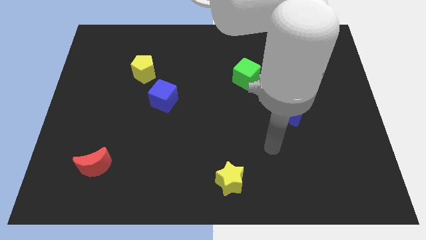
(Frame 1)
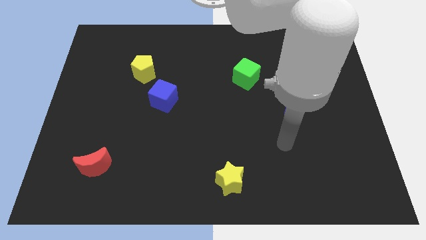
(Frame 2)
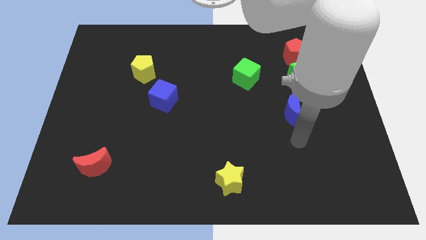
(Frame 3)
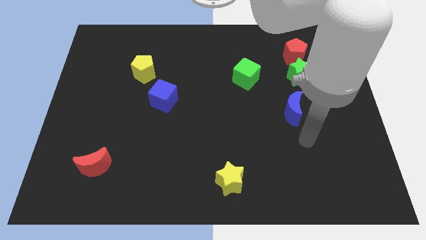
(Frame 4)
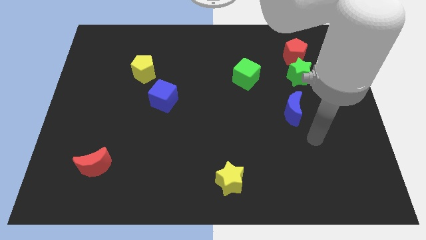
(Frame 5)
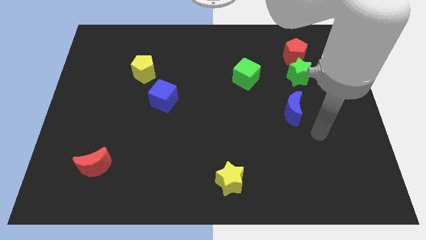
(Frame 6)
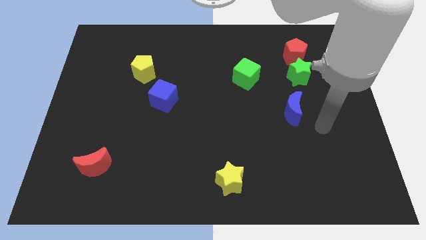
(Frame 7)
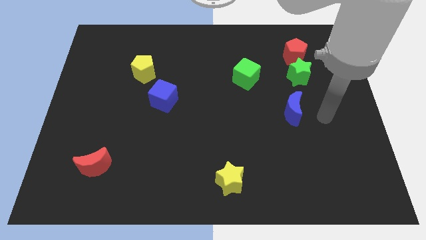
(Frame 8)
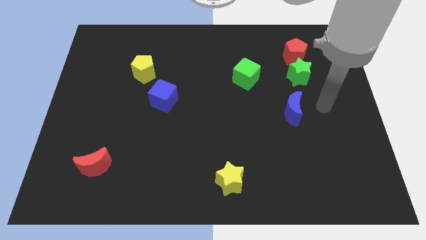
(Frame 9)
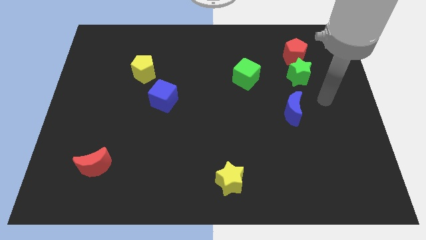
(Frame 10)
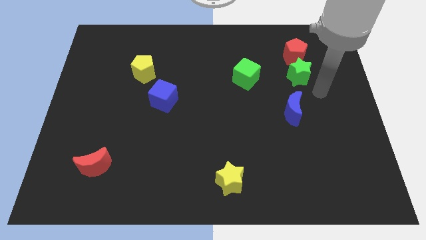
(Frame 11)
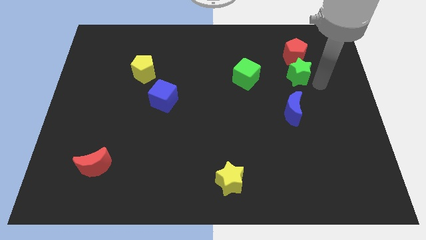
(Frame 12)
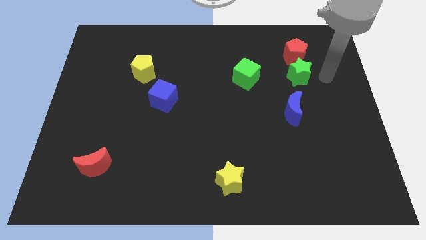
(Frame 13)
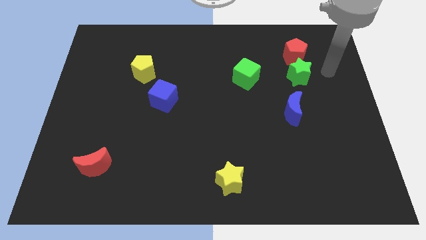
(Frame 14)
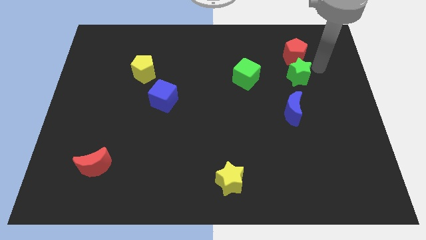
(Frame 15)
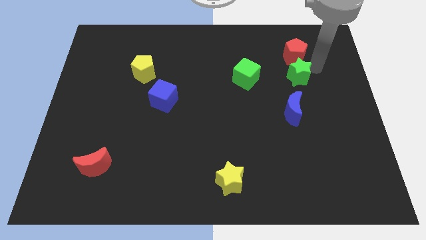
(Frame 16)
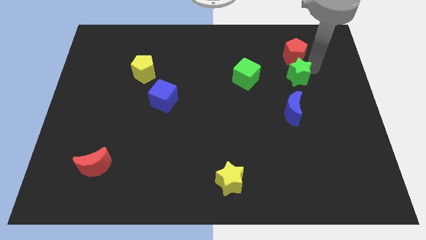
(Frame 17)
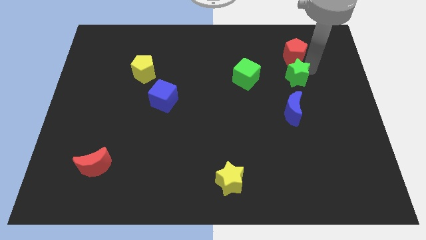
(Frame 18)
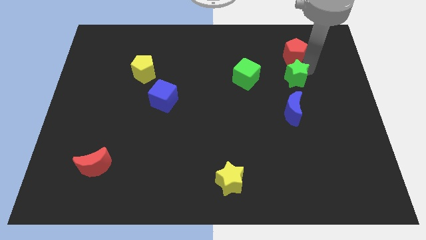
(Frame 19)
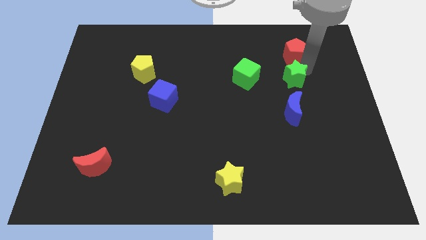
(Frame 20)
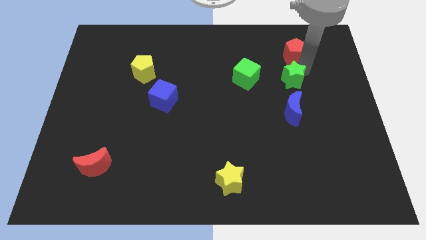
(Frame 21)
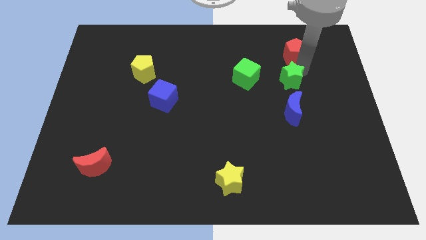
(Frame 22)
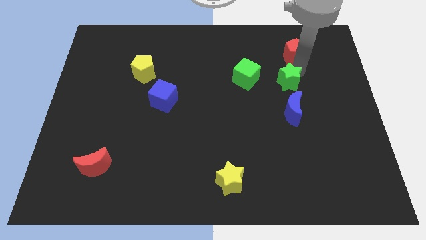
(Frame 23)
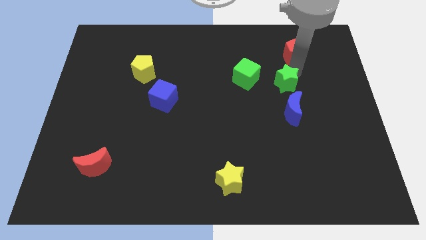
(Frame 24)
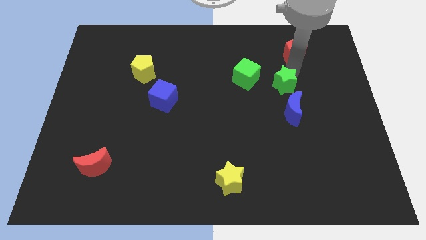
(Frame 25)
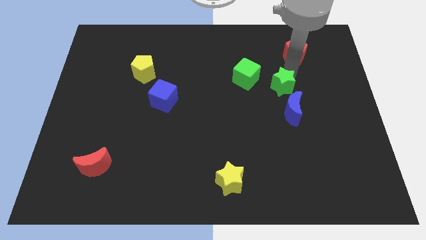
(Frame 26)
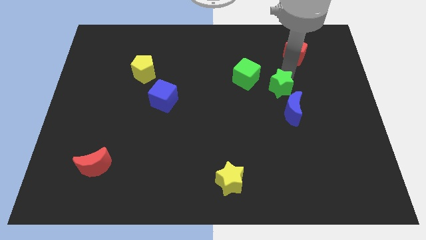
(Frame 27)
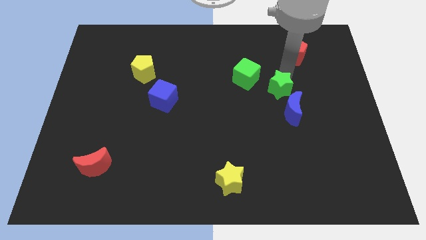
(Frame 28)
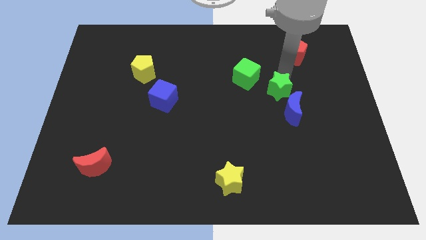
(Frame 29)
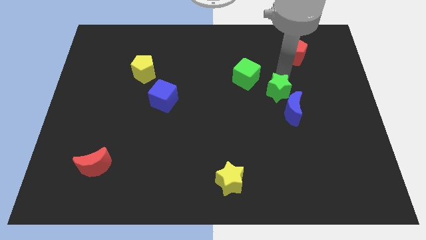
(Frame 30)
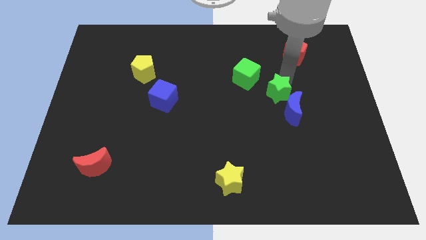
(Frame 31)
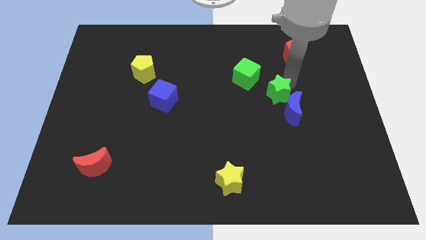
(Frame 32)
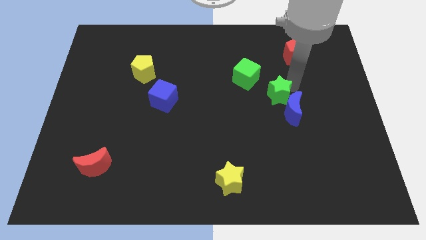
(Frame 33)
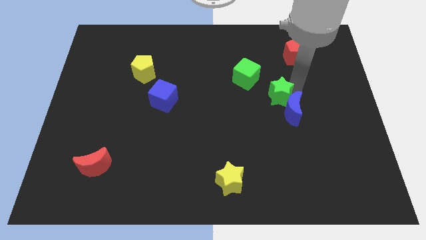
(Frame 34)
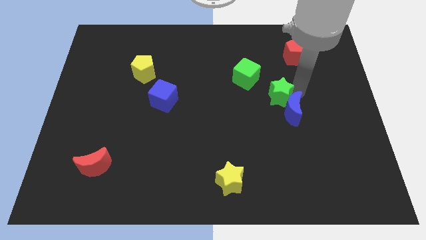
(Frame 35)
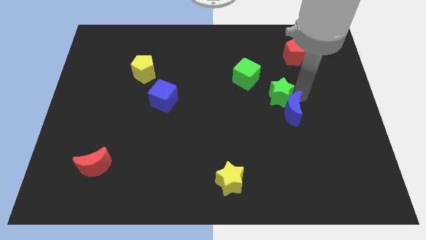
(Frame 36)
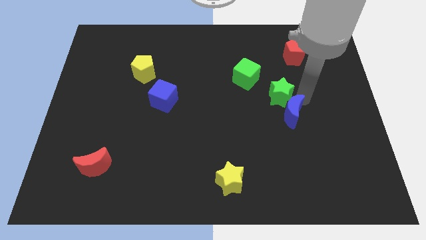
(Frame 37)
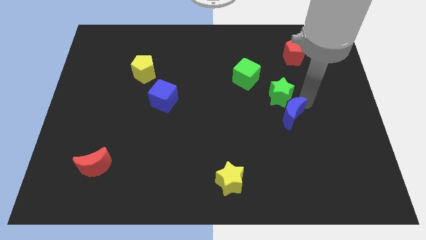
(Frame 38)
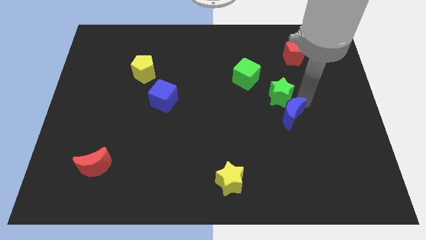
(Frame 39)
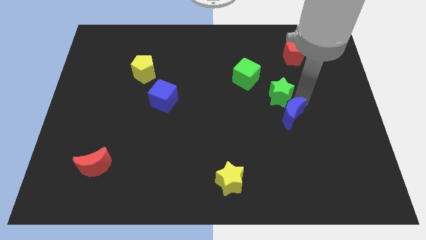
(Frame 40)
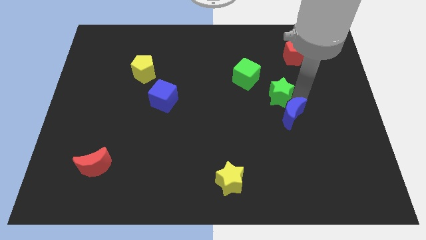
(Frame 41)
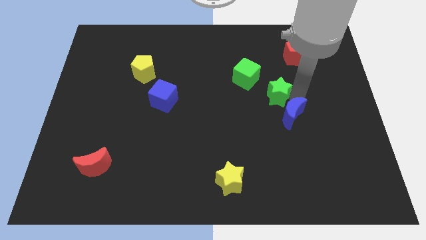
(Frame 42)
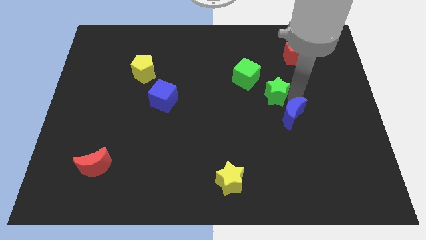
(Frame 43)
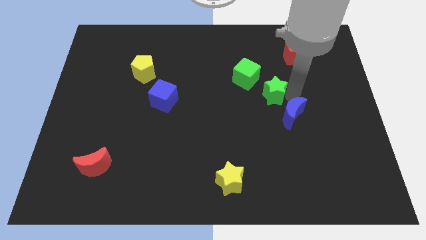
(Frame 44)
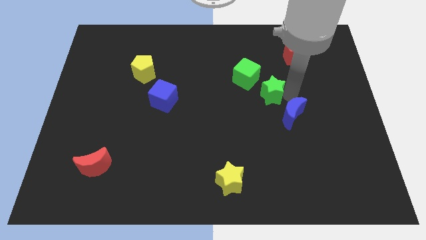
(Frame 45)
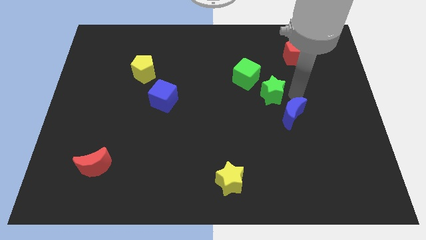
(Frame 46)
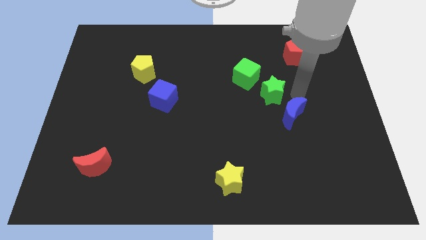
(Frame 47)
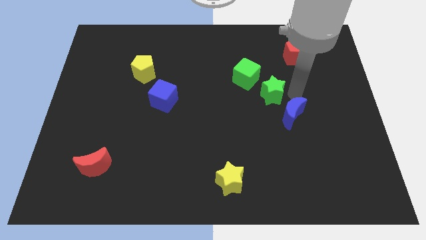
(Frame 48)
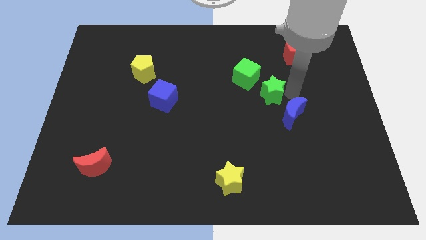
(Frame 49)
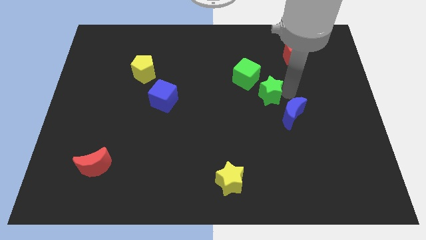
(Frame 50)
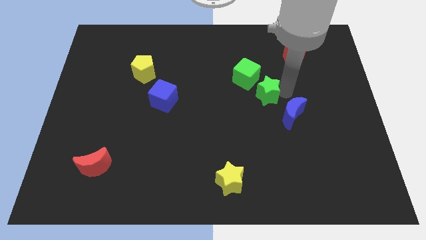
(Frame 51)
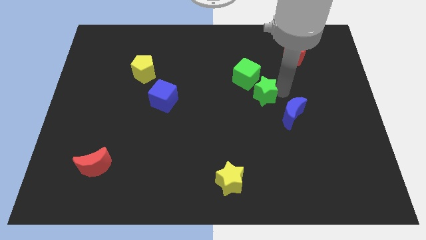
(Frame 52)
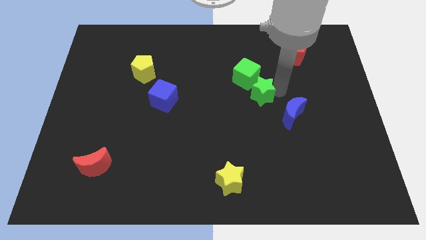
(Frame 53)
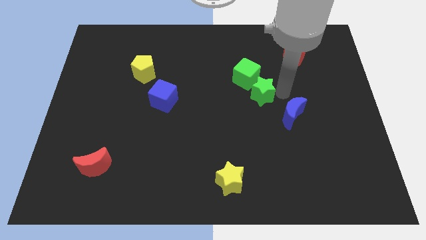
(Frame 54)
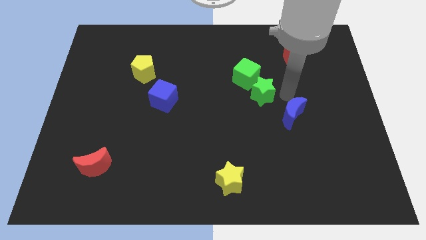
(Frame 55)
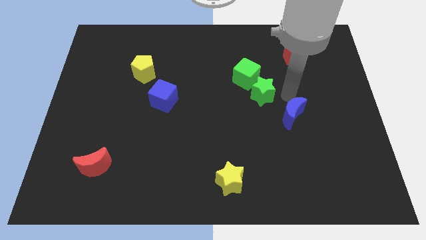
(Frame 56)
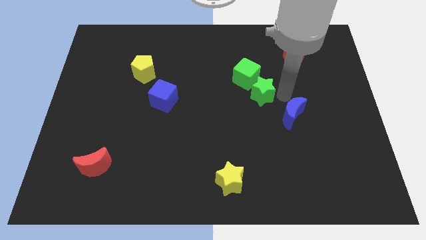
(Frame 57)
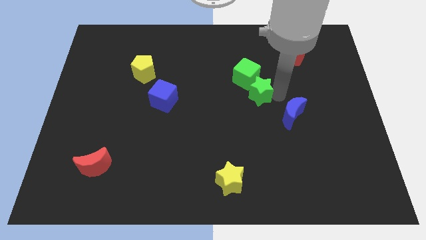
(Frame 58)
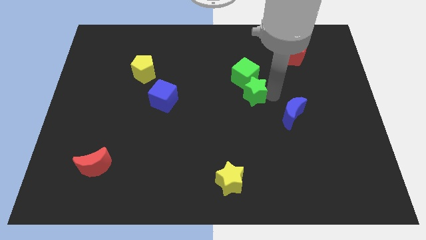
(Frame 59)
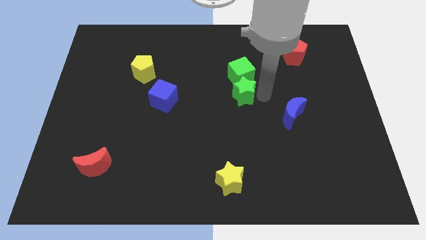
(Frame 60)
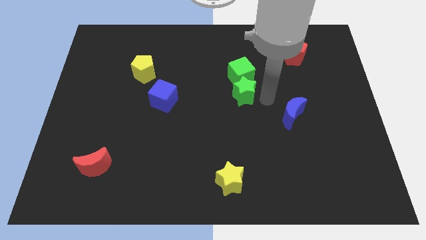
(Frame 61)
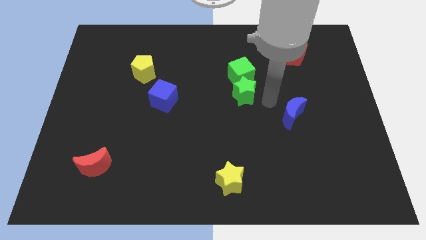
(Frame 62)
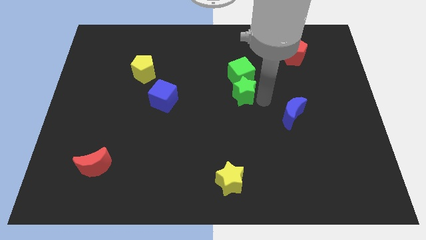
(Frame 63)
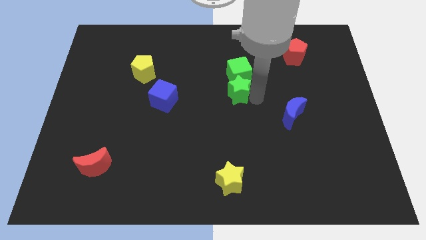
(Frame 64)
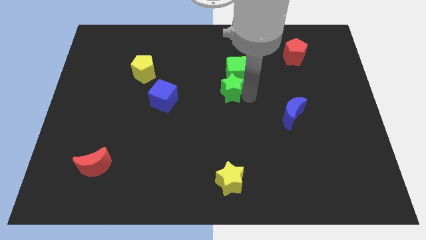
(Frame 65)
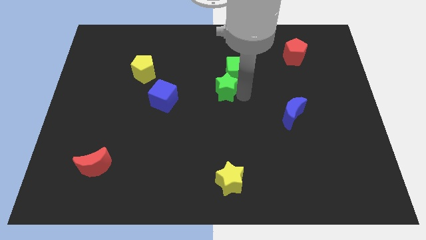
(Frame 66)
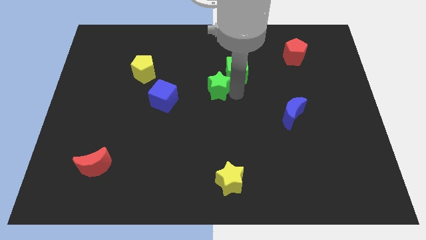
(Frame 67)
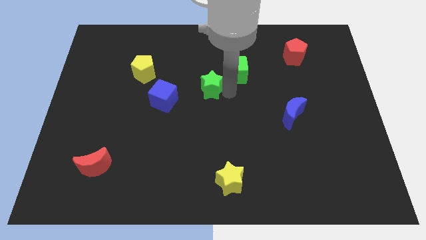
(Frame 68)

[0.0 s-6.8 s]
slide the green star to the left

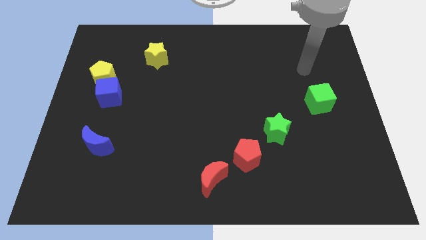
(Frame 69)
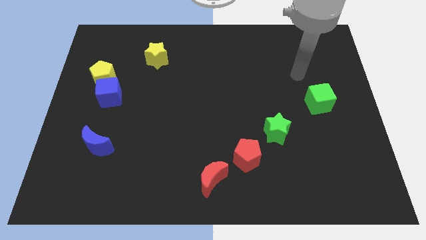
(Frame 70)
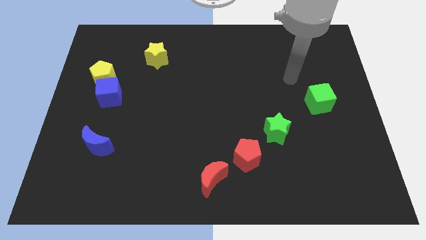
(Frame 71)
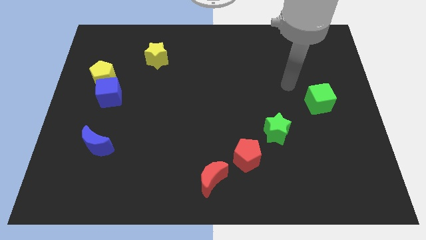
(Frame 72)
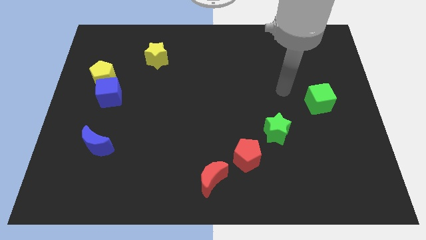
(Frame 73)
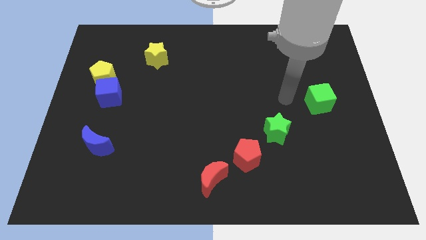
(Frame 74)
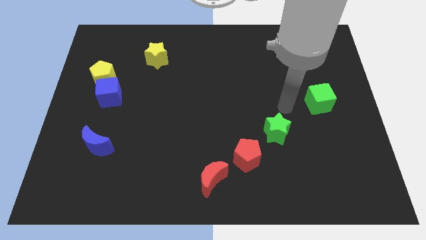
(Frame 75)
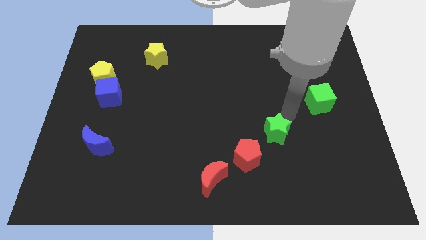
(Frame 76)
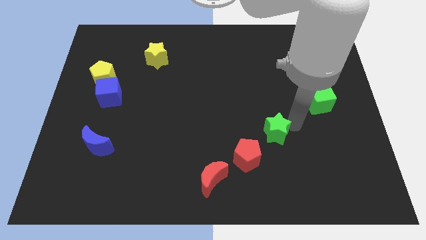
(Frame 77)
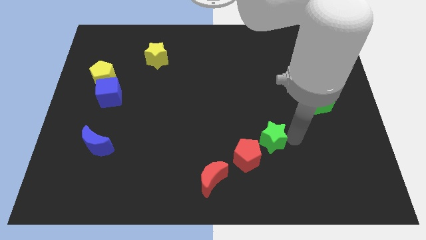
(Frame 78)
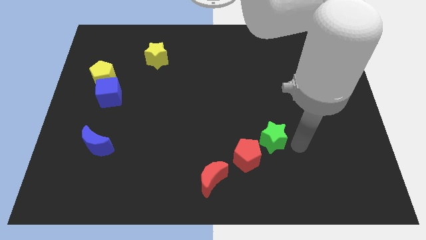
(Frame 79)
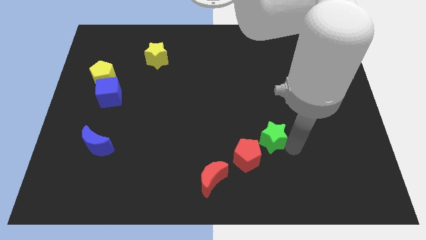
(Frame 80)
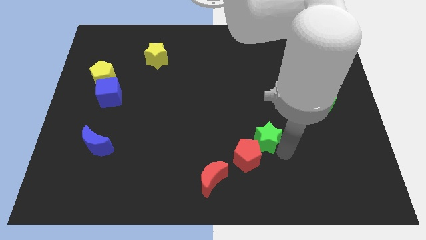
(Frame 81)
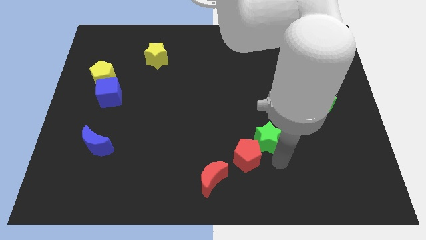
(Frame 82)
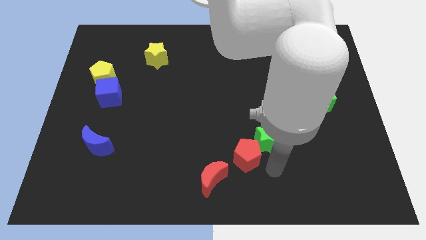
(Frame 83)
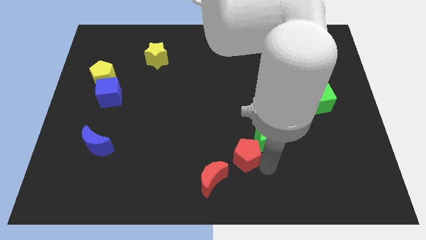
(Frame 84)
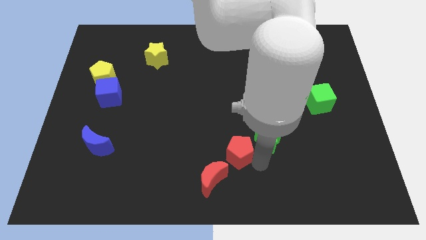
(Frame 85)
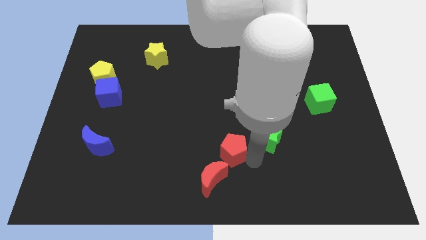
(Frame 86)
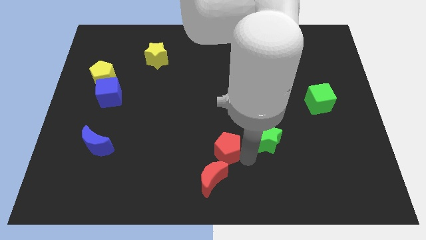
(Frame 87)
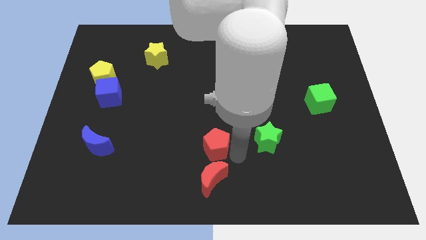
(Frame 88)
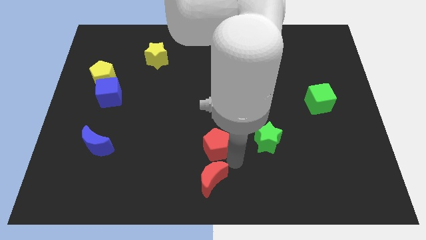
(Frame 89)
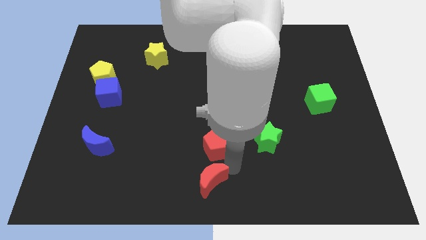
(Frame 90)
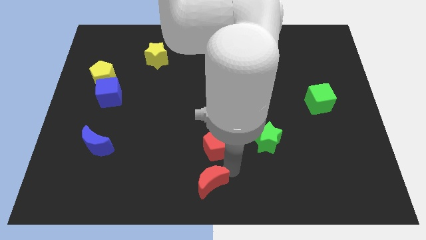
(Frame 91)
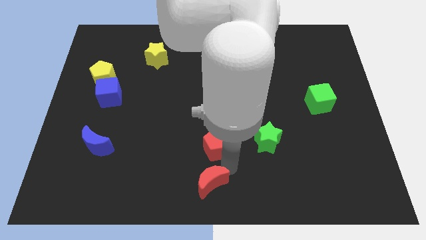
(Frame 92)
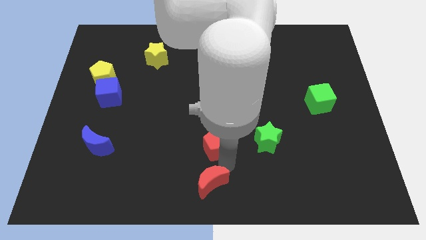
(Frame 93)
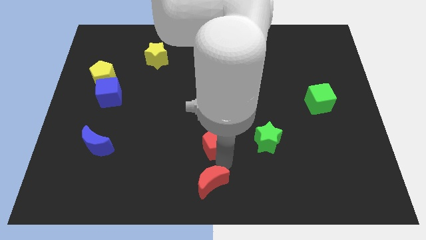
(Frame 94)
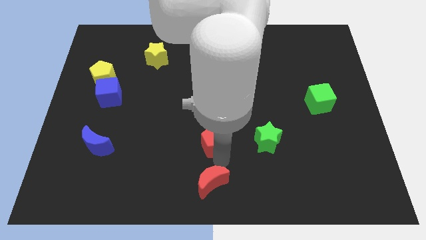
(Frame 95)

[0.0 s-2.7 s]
slide the red pentagon a bit up and left
